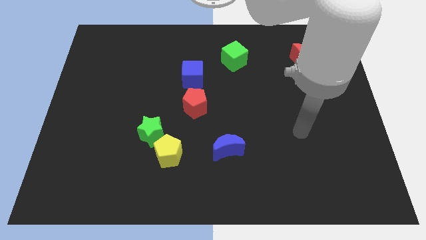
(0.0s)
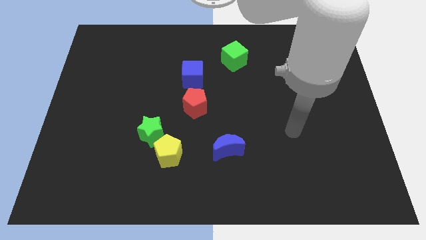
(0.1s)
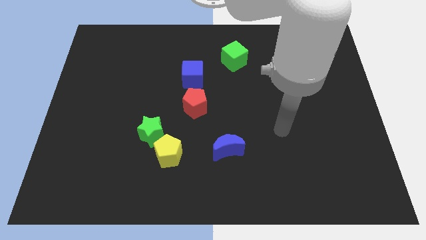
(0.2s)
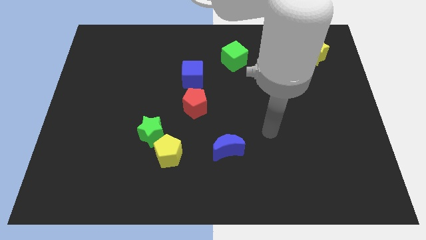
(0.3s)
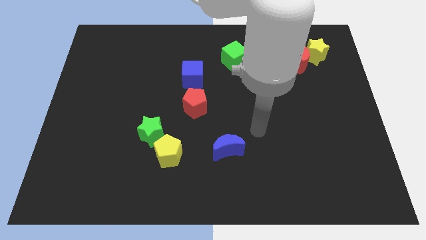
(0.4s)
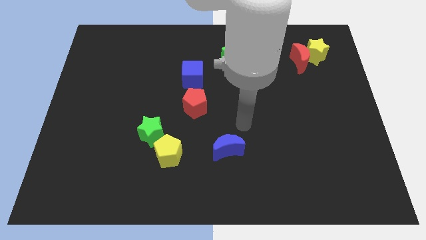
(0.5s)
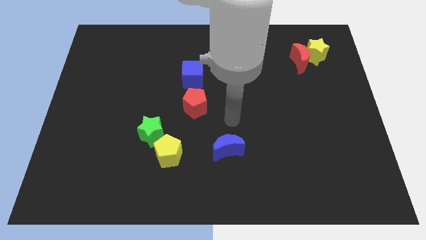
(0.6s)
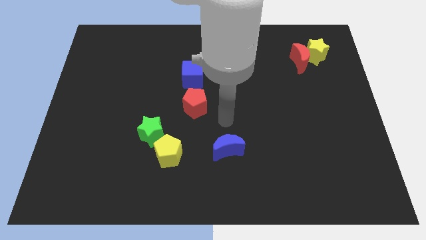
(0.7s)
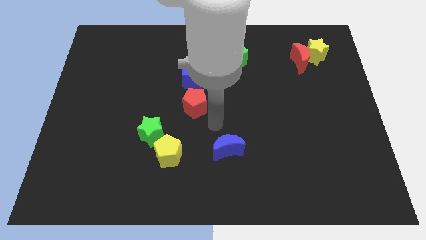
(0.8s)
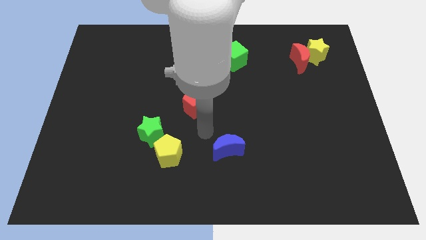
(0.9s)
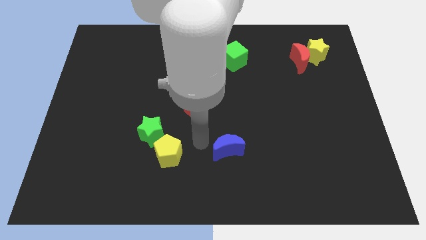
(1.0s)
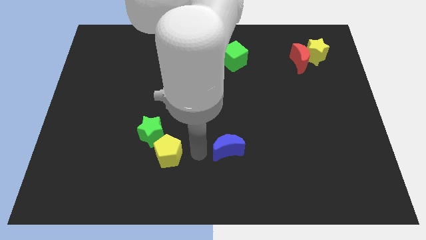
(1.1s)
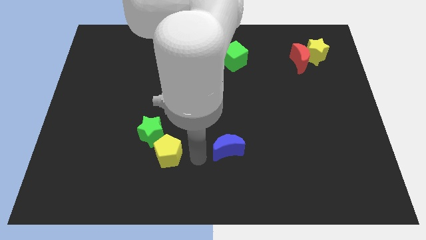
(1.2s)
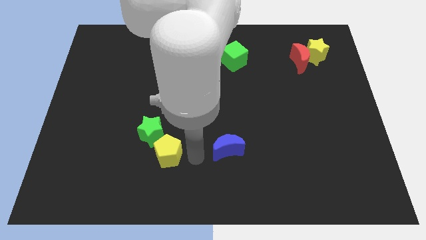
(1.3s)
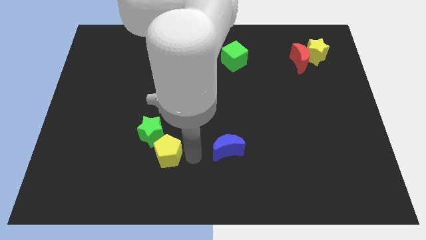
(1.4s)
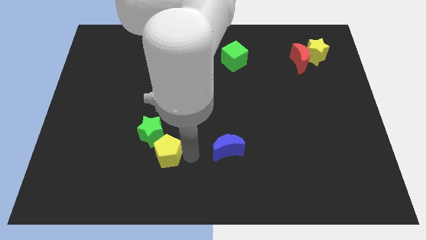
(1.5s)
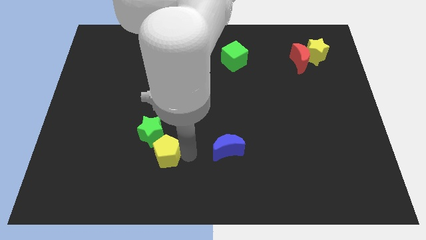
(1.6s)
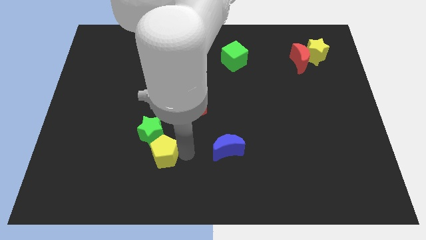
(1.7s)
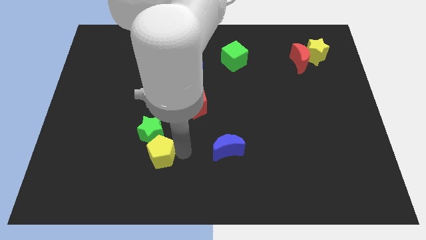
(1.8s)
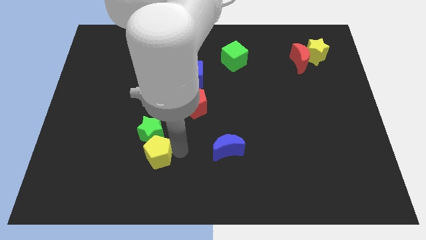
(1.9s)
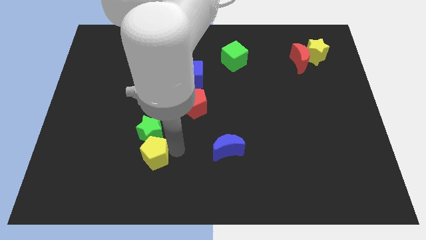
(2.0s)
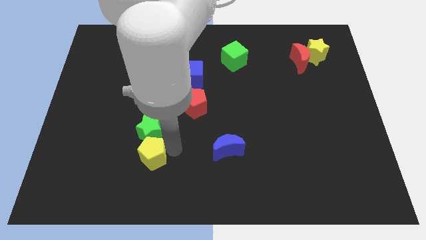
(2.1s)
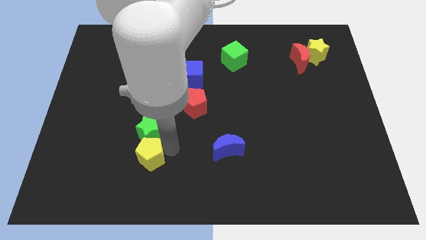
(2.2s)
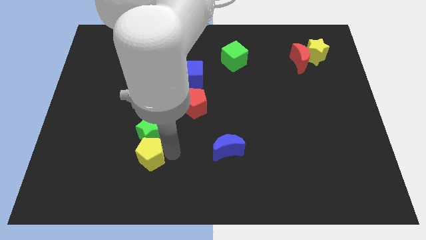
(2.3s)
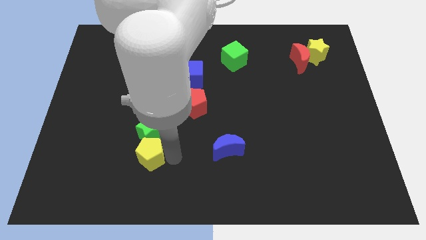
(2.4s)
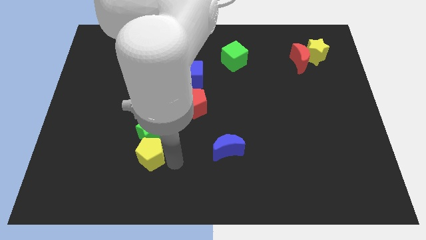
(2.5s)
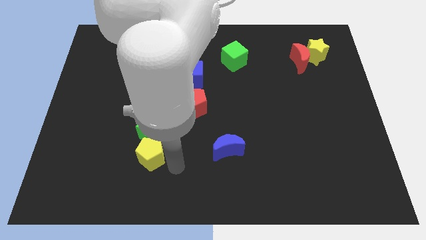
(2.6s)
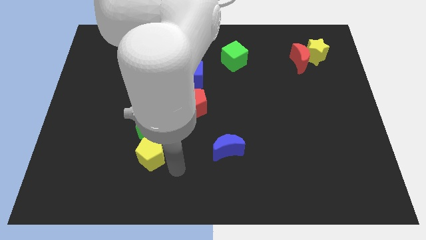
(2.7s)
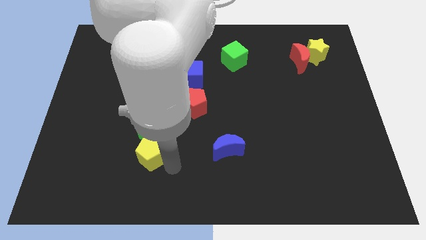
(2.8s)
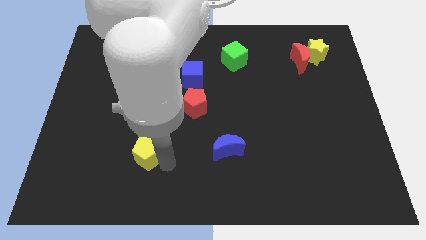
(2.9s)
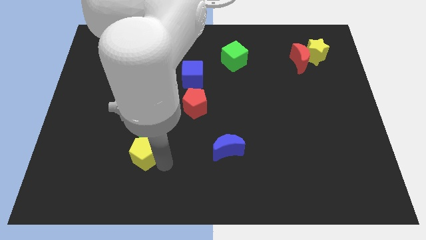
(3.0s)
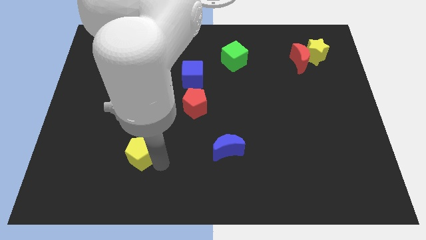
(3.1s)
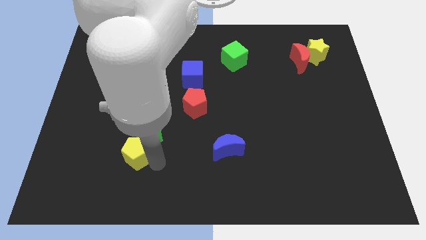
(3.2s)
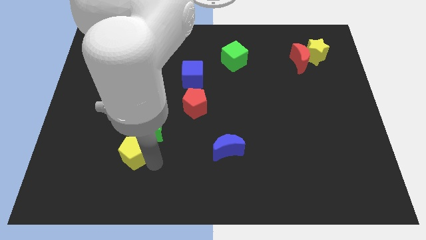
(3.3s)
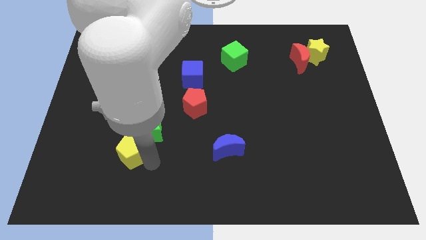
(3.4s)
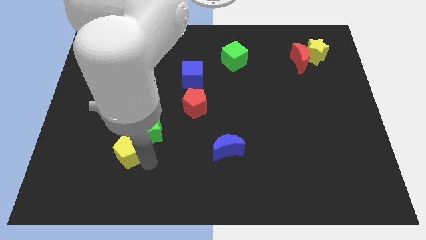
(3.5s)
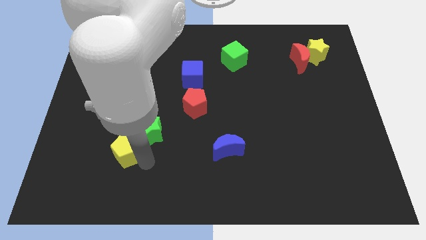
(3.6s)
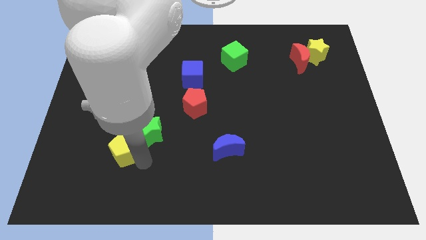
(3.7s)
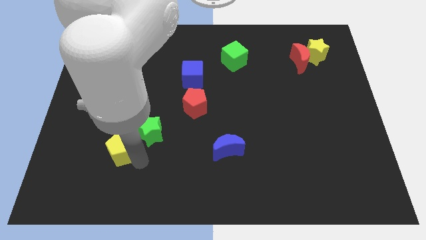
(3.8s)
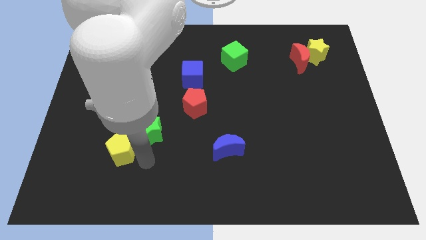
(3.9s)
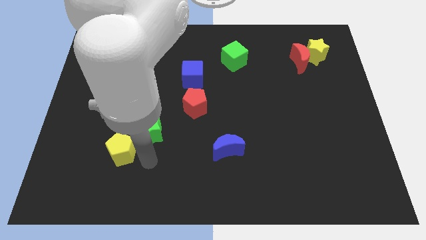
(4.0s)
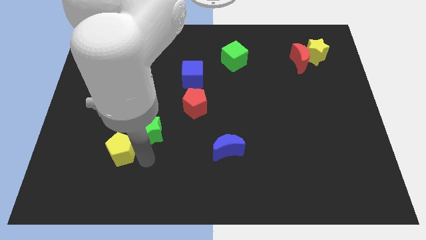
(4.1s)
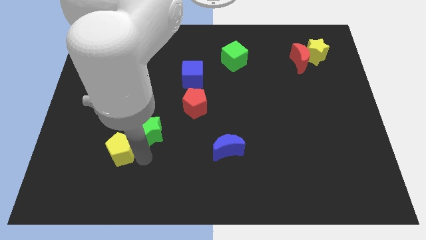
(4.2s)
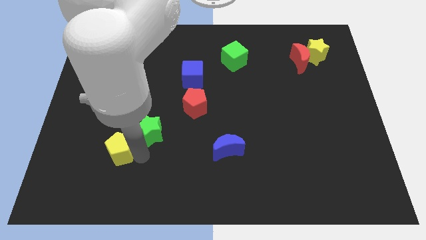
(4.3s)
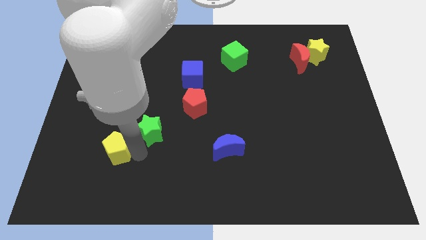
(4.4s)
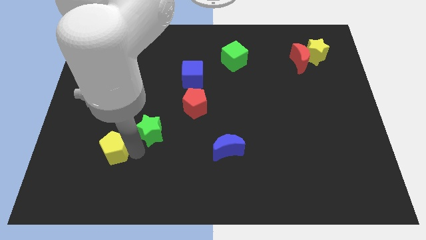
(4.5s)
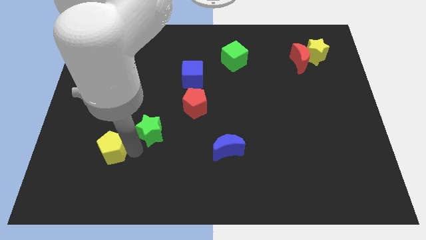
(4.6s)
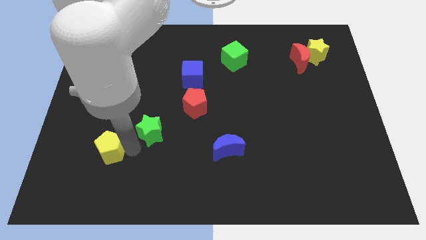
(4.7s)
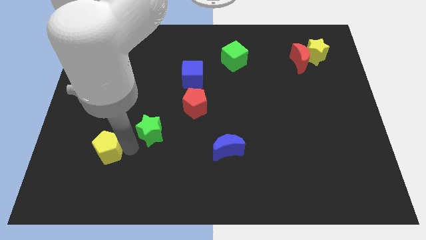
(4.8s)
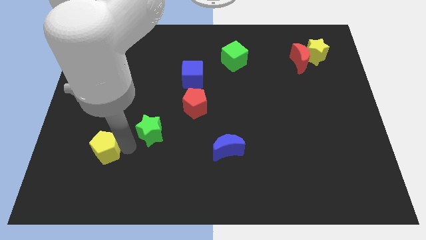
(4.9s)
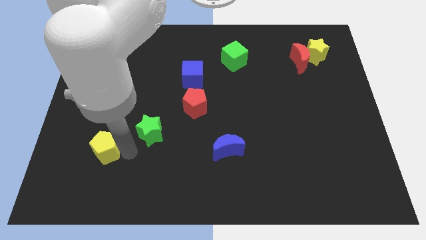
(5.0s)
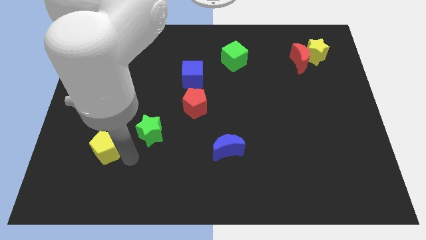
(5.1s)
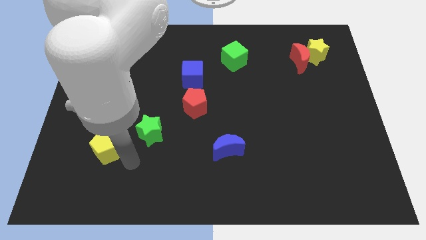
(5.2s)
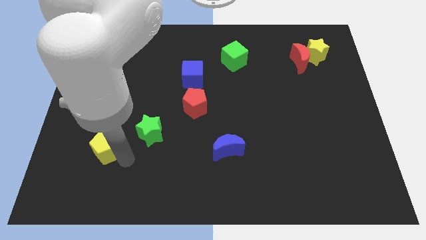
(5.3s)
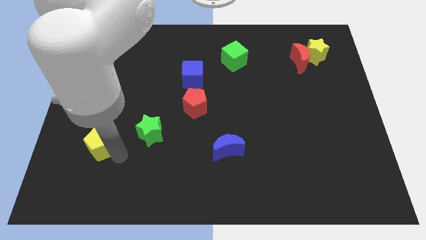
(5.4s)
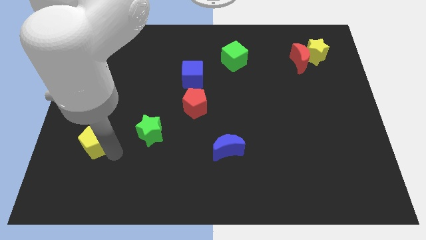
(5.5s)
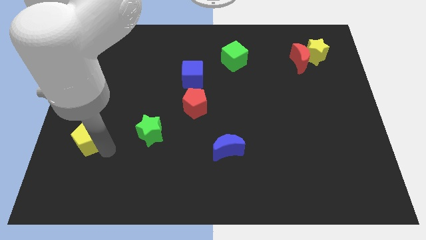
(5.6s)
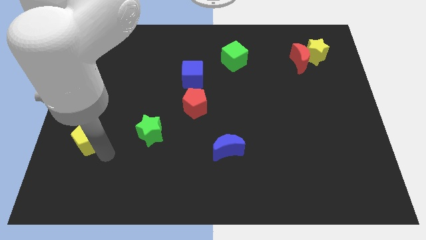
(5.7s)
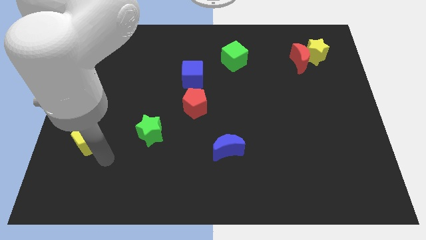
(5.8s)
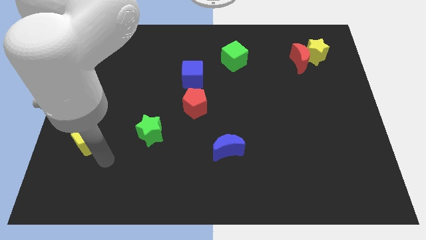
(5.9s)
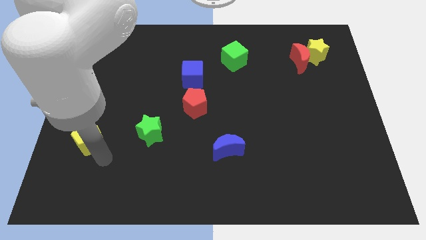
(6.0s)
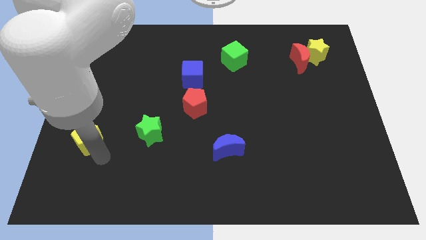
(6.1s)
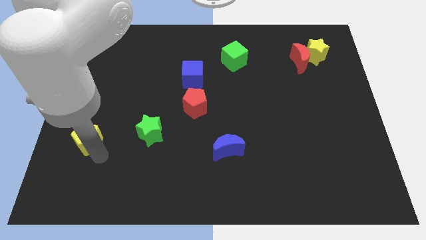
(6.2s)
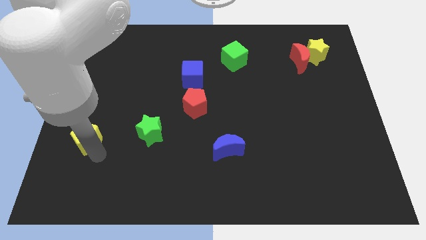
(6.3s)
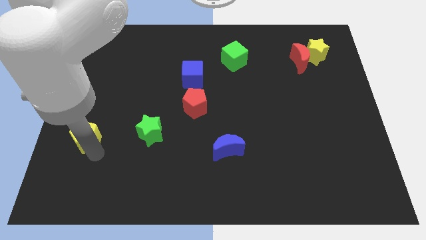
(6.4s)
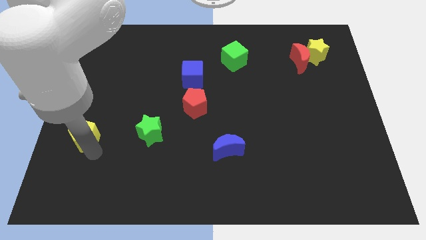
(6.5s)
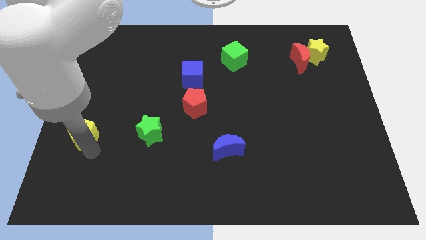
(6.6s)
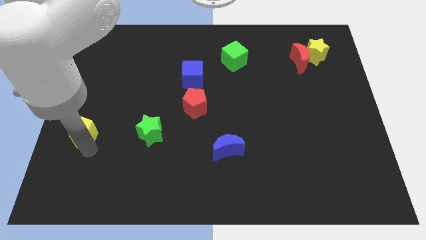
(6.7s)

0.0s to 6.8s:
move the yellow pentagon to the left side

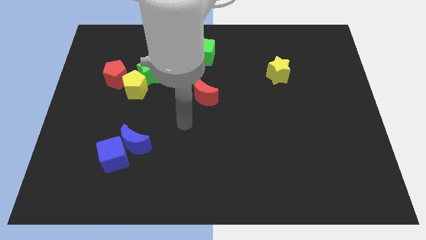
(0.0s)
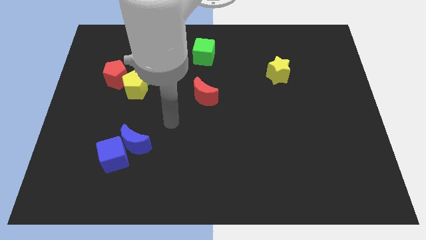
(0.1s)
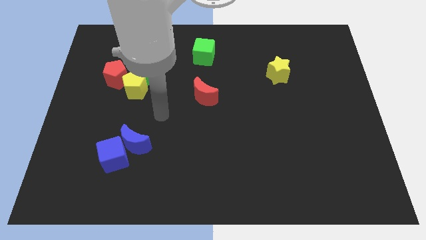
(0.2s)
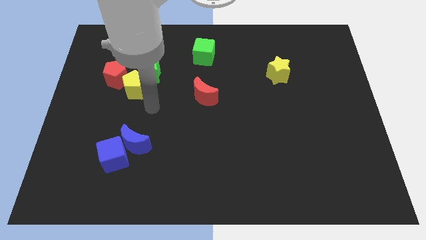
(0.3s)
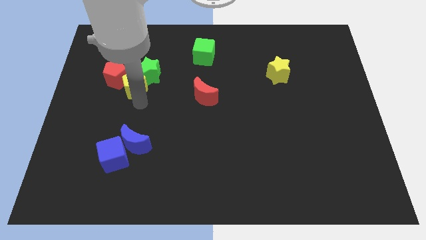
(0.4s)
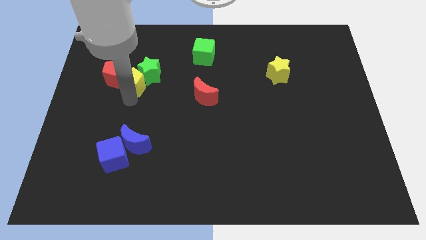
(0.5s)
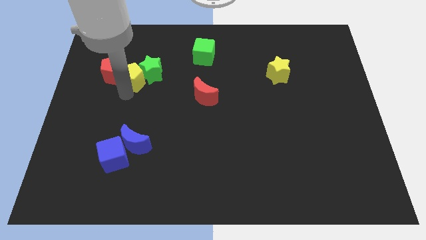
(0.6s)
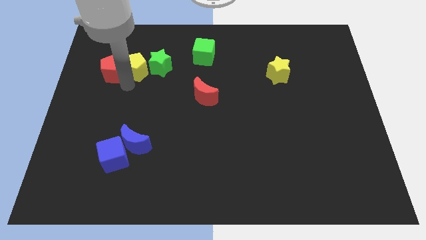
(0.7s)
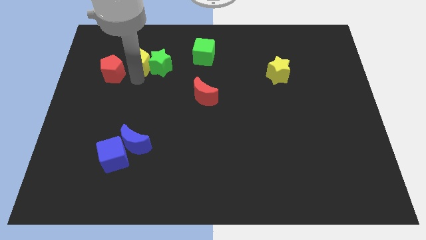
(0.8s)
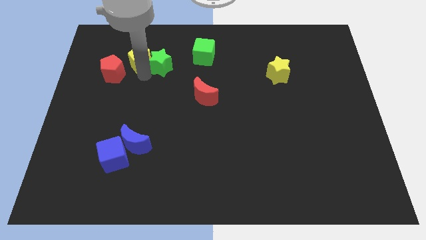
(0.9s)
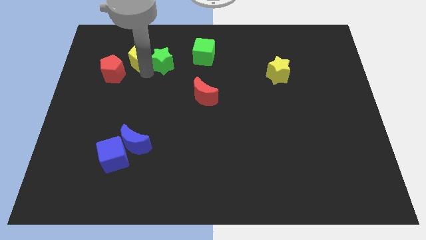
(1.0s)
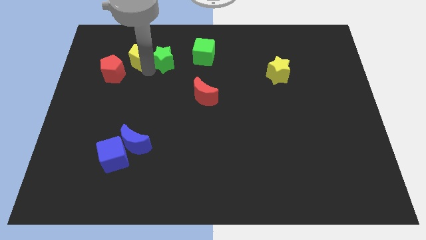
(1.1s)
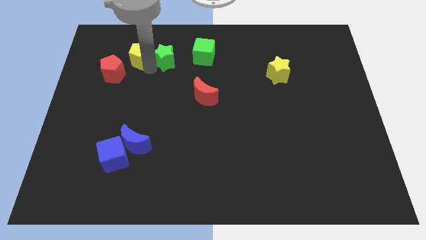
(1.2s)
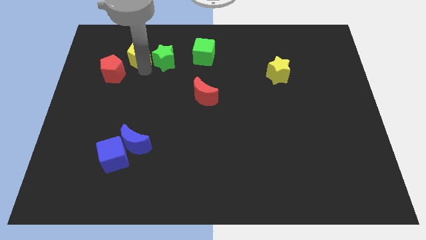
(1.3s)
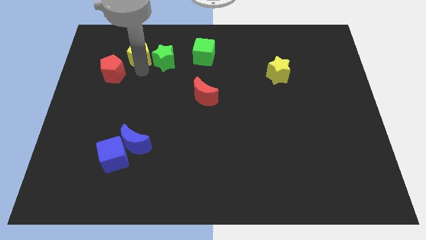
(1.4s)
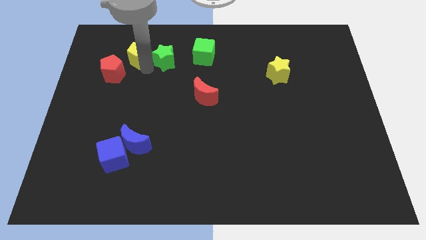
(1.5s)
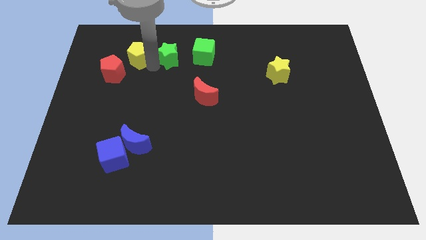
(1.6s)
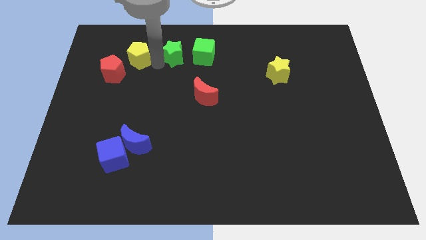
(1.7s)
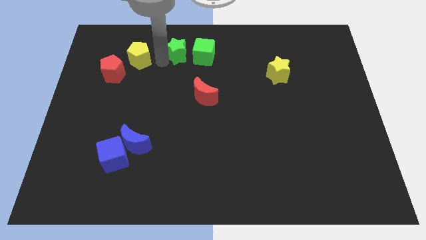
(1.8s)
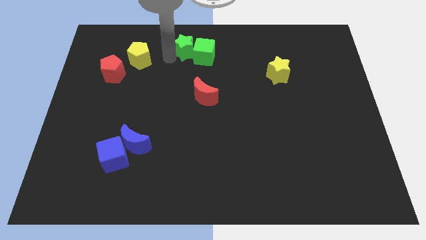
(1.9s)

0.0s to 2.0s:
push the green star to the top
